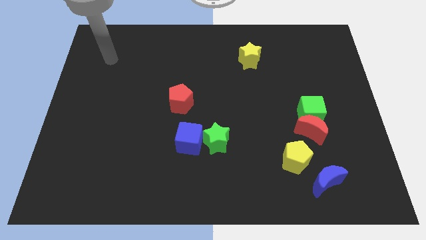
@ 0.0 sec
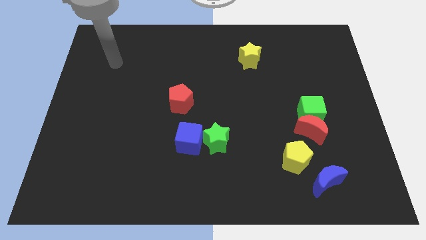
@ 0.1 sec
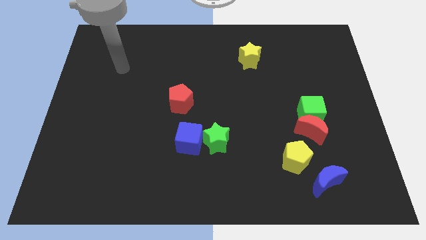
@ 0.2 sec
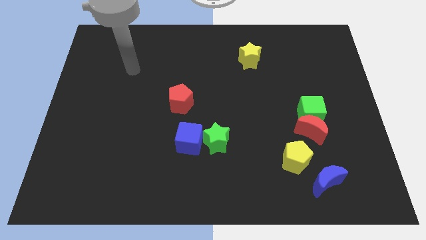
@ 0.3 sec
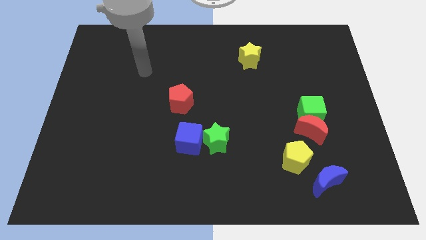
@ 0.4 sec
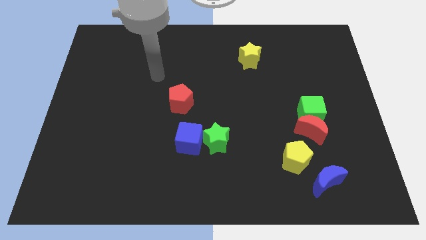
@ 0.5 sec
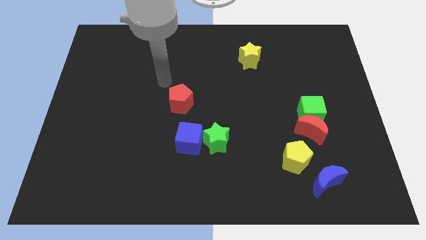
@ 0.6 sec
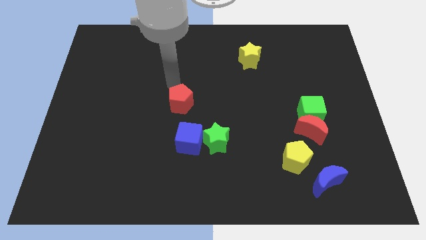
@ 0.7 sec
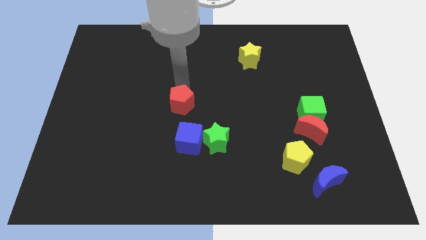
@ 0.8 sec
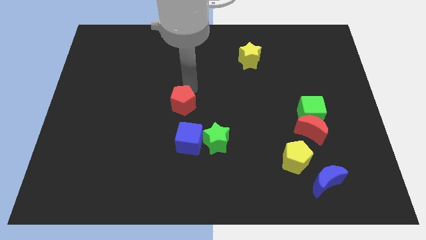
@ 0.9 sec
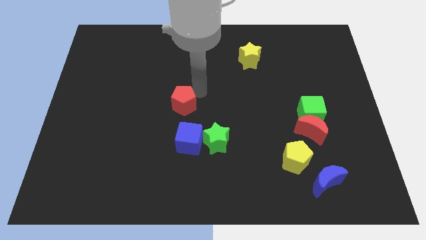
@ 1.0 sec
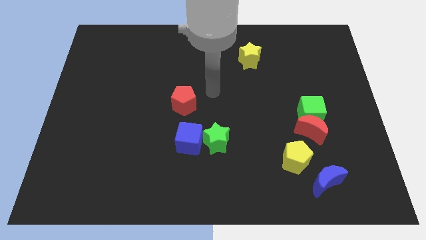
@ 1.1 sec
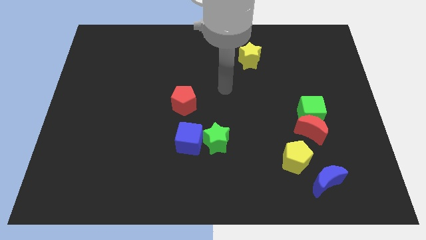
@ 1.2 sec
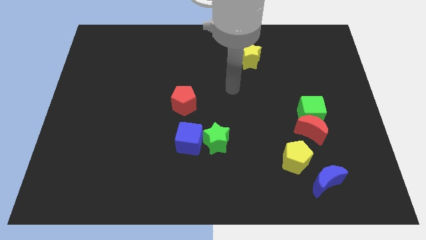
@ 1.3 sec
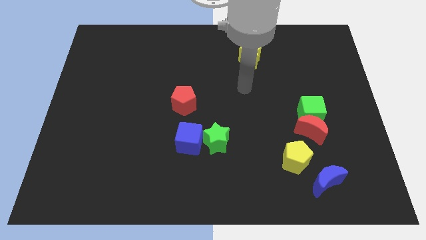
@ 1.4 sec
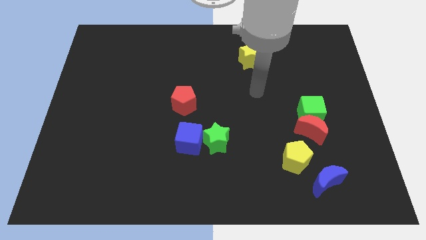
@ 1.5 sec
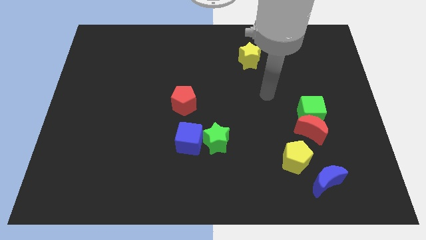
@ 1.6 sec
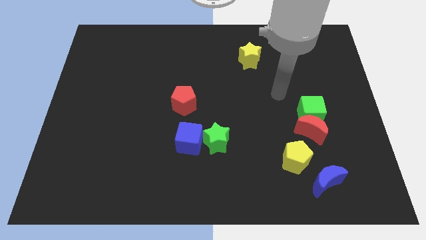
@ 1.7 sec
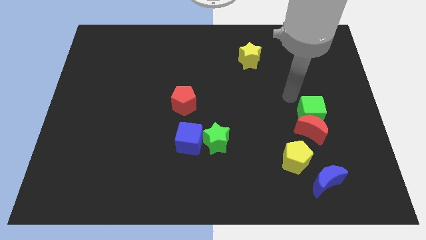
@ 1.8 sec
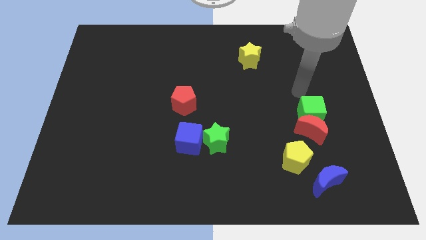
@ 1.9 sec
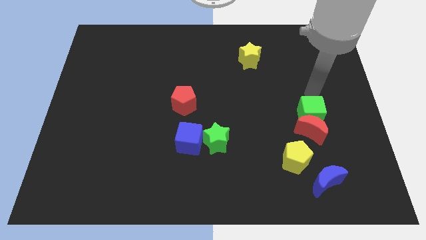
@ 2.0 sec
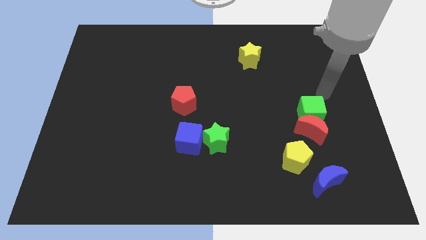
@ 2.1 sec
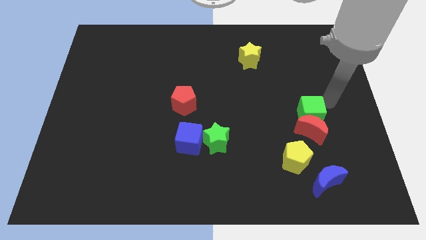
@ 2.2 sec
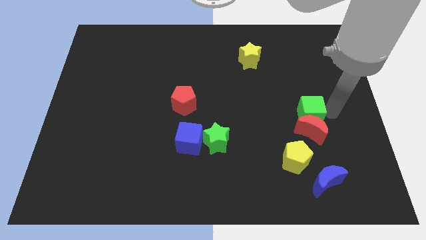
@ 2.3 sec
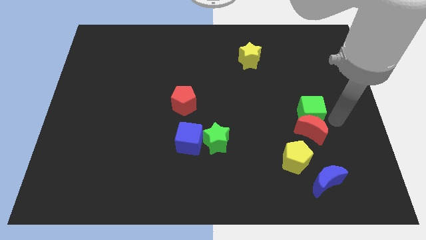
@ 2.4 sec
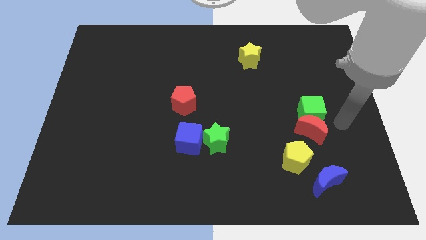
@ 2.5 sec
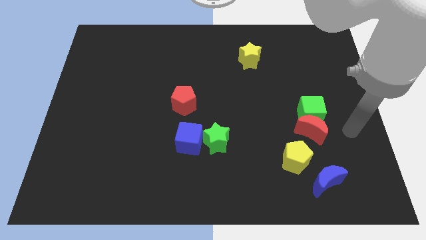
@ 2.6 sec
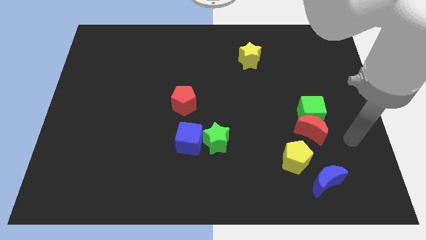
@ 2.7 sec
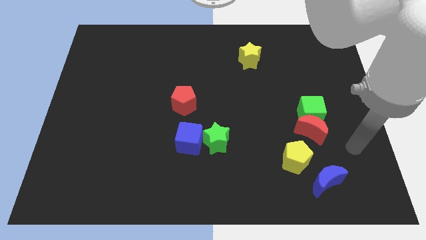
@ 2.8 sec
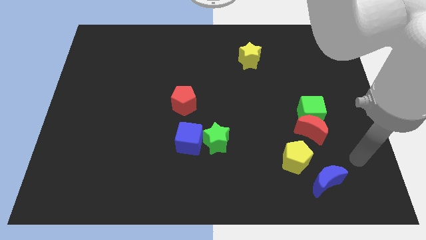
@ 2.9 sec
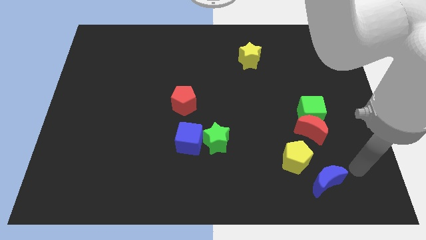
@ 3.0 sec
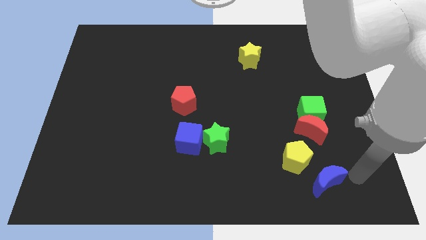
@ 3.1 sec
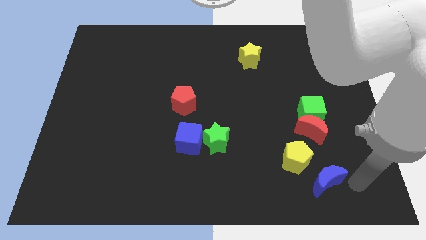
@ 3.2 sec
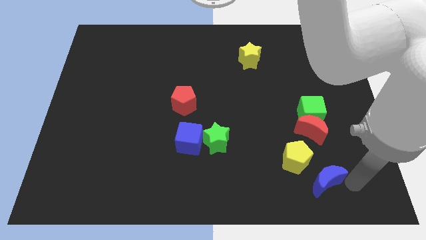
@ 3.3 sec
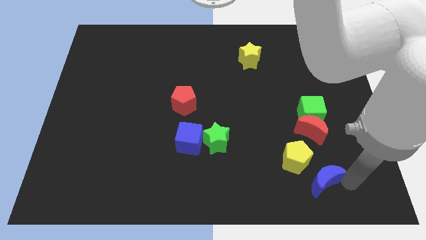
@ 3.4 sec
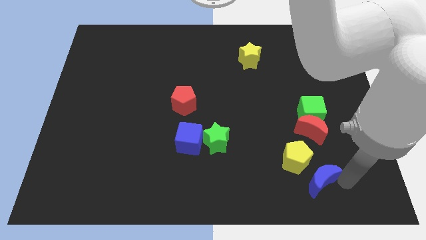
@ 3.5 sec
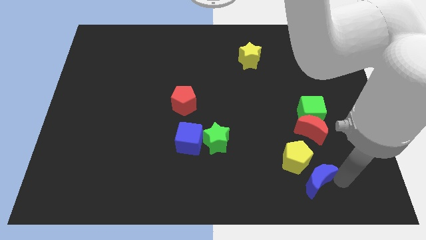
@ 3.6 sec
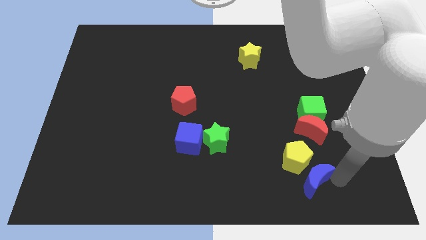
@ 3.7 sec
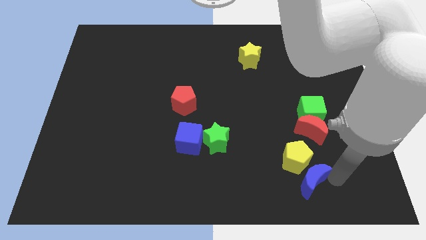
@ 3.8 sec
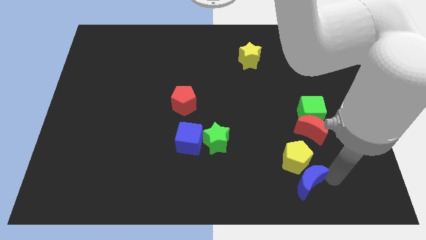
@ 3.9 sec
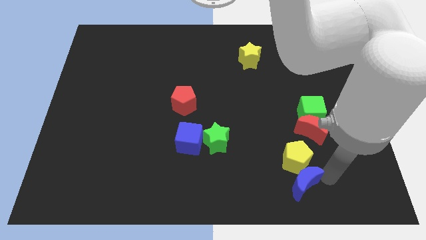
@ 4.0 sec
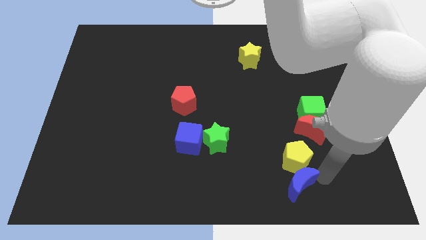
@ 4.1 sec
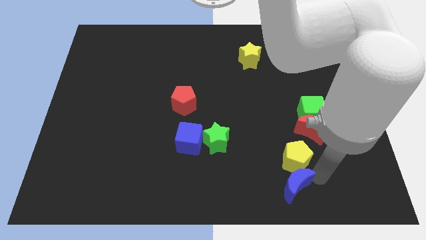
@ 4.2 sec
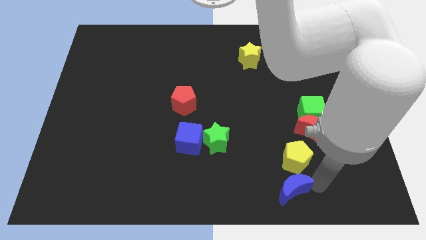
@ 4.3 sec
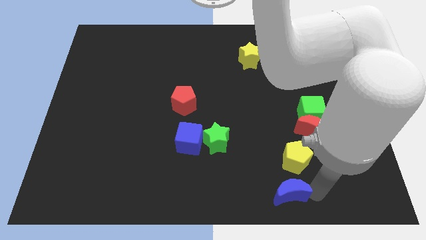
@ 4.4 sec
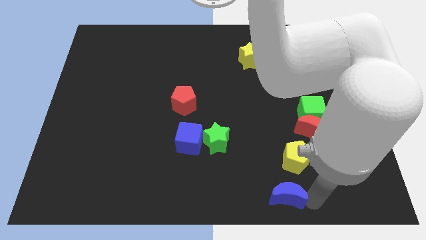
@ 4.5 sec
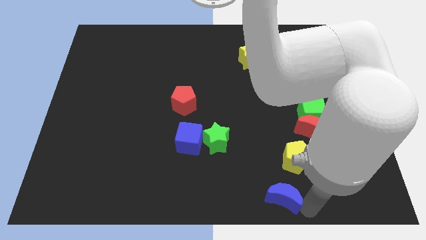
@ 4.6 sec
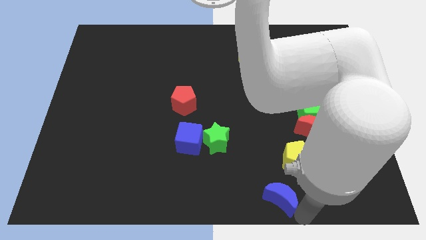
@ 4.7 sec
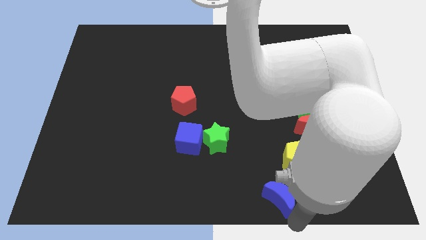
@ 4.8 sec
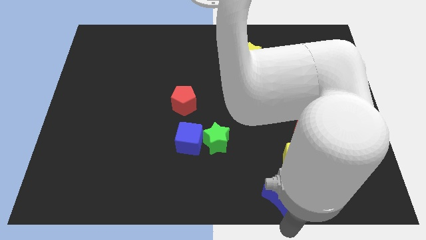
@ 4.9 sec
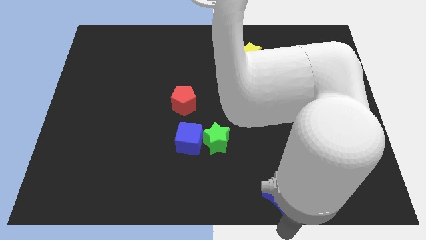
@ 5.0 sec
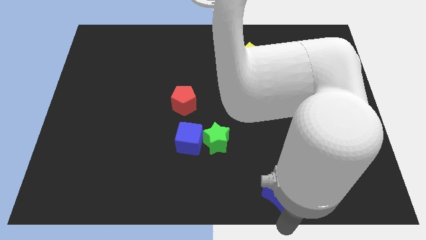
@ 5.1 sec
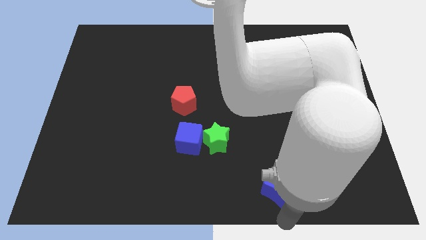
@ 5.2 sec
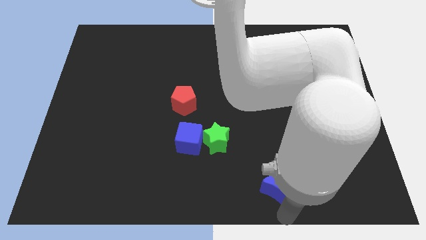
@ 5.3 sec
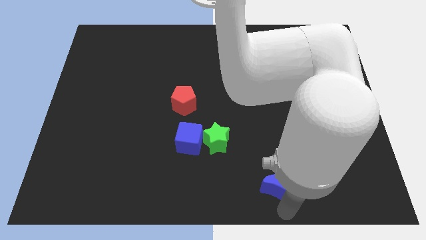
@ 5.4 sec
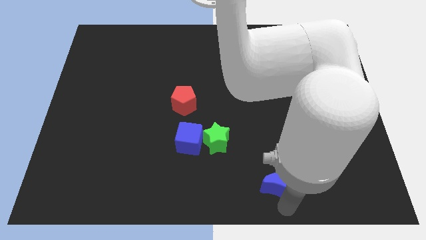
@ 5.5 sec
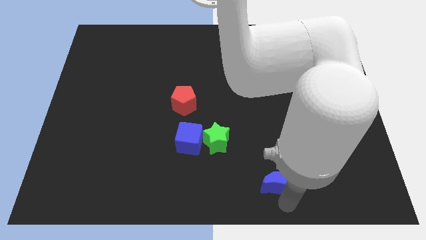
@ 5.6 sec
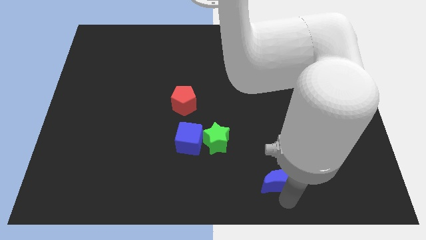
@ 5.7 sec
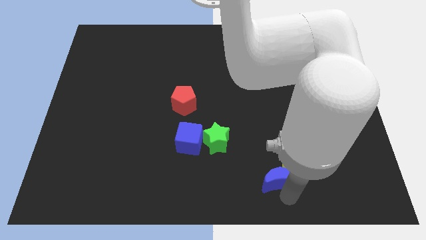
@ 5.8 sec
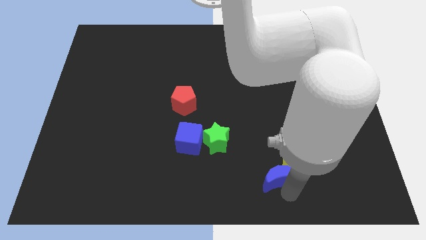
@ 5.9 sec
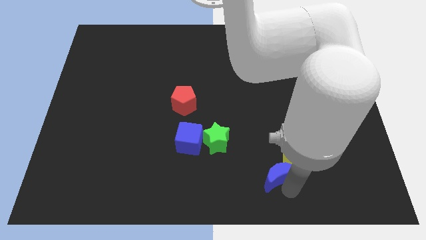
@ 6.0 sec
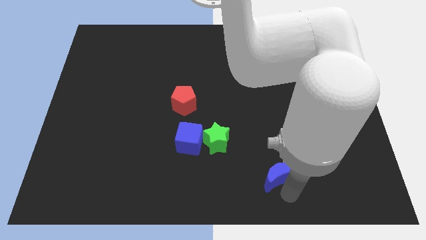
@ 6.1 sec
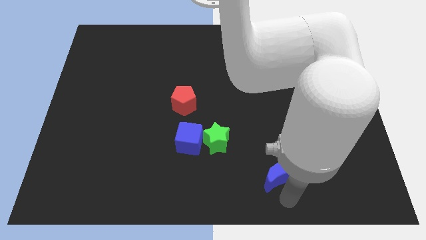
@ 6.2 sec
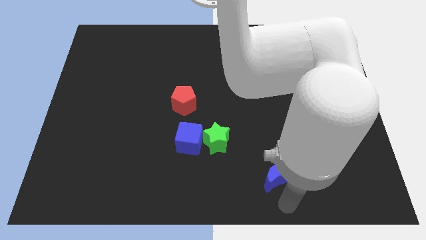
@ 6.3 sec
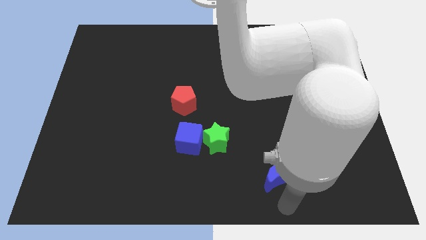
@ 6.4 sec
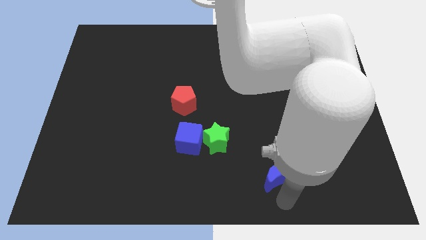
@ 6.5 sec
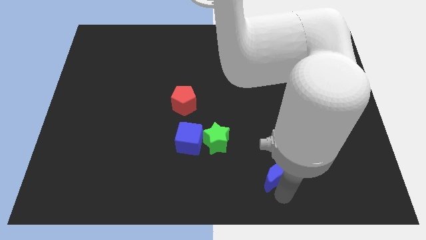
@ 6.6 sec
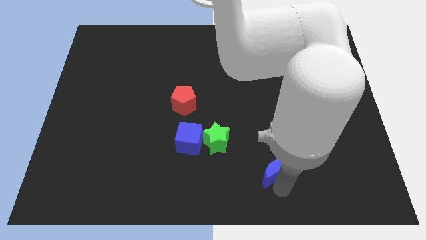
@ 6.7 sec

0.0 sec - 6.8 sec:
push the blue moon slightly diagonally up and to the left

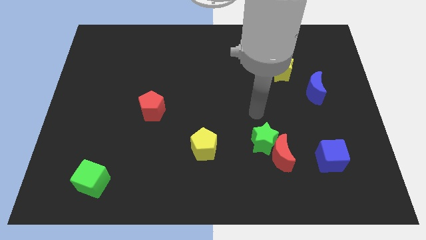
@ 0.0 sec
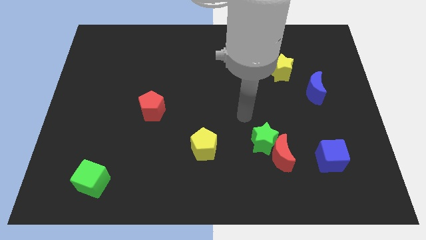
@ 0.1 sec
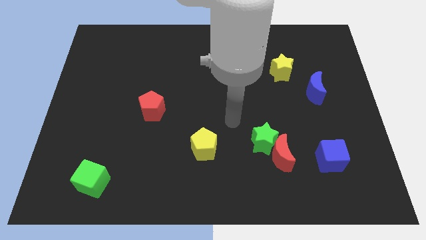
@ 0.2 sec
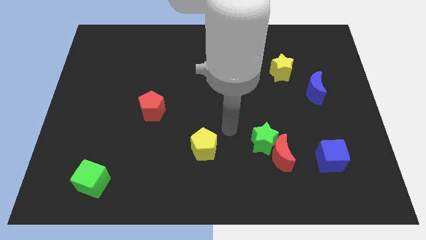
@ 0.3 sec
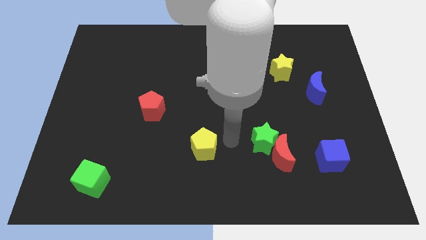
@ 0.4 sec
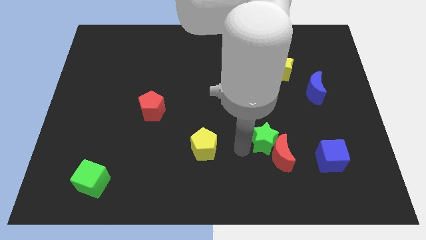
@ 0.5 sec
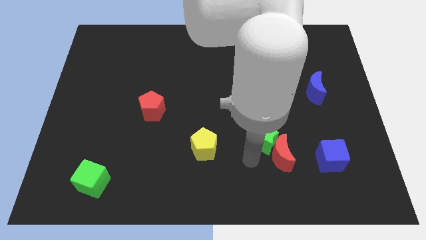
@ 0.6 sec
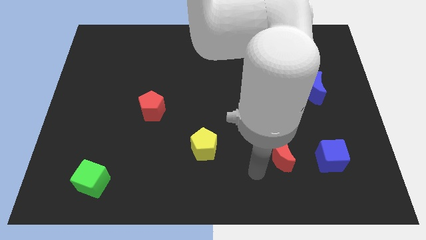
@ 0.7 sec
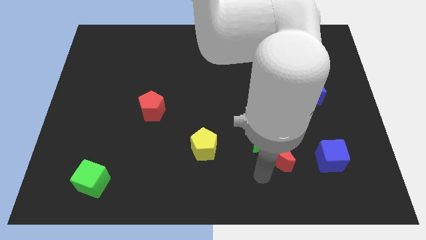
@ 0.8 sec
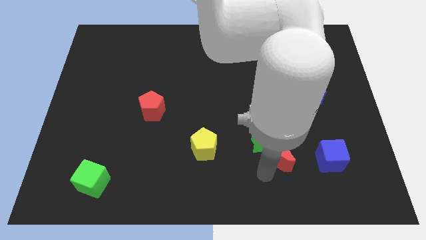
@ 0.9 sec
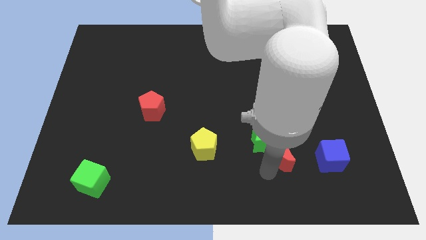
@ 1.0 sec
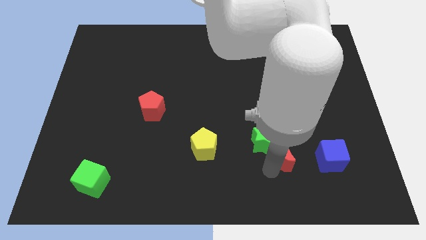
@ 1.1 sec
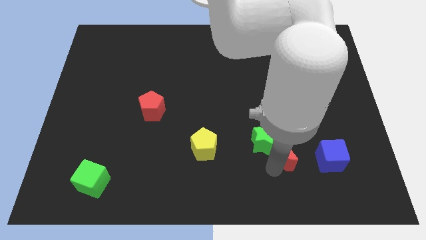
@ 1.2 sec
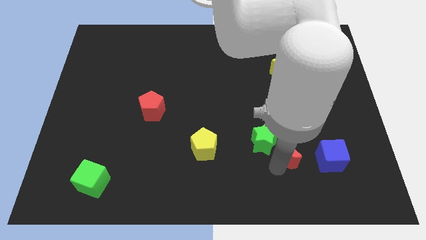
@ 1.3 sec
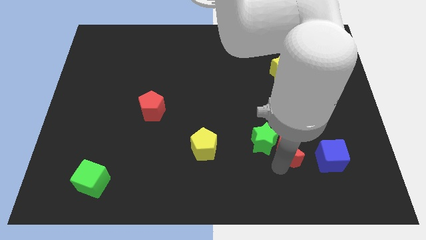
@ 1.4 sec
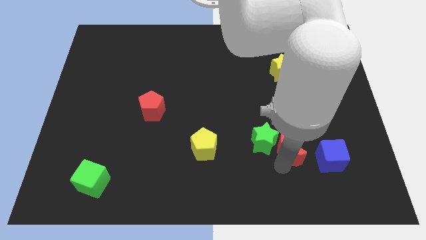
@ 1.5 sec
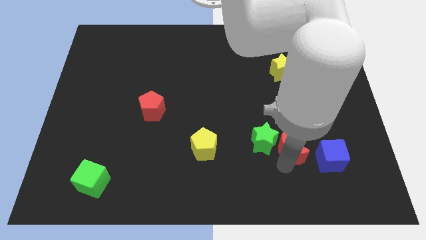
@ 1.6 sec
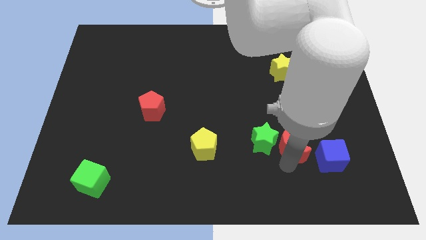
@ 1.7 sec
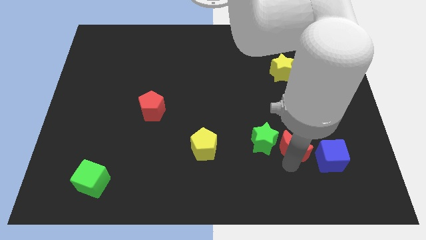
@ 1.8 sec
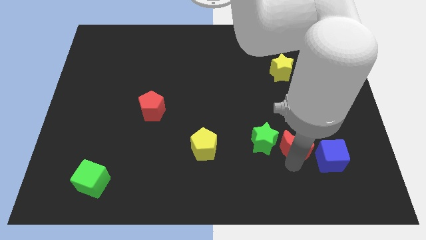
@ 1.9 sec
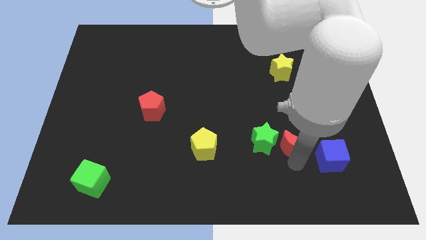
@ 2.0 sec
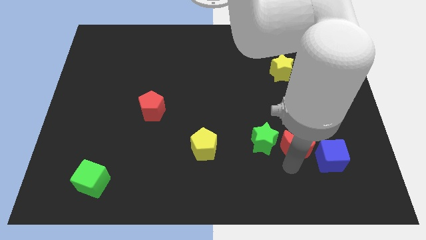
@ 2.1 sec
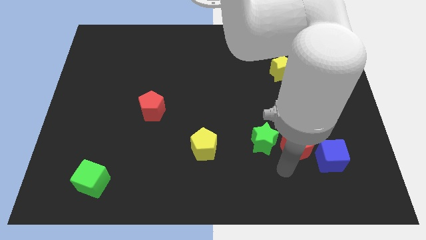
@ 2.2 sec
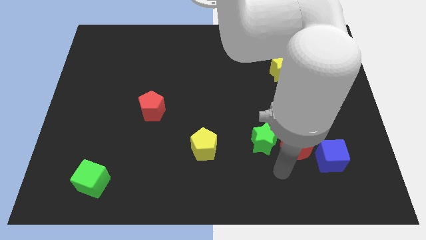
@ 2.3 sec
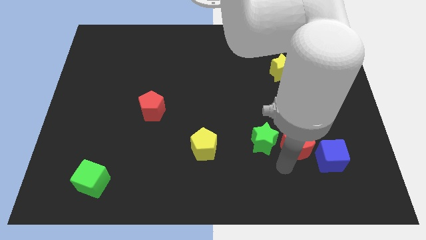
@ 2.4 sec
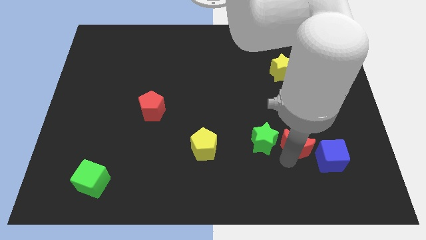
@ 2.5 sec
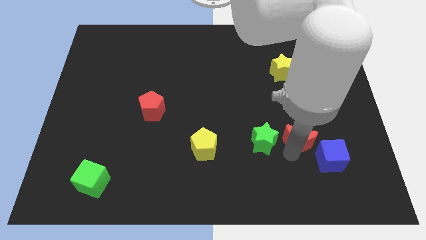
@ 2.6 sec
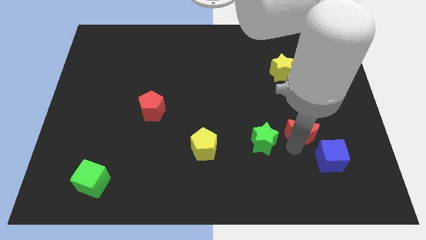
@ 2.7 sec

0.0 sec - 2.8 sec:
slide the red moon upwards and then right somewhat
